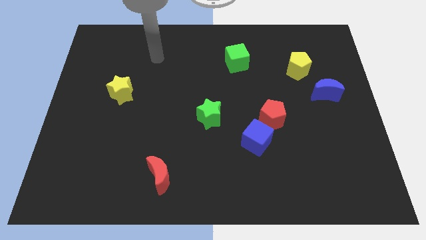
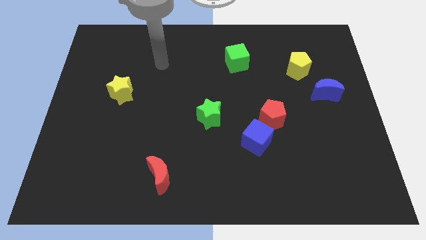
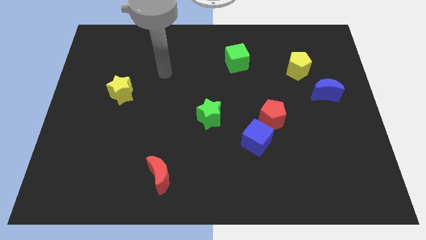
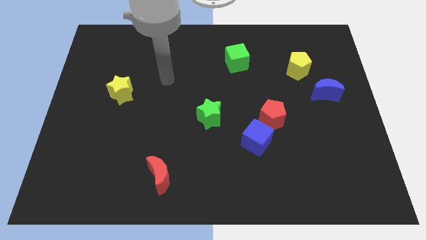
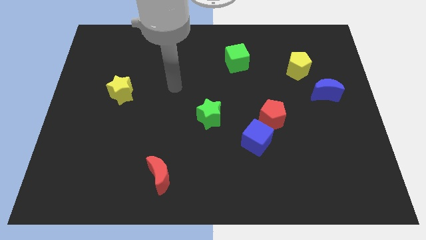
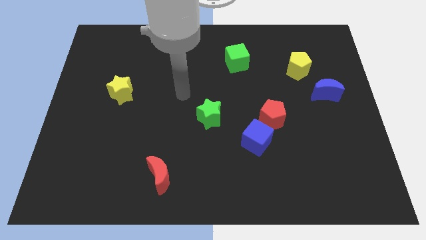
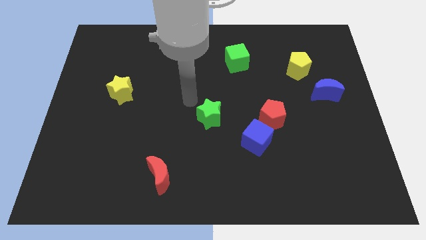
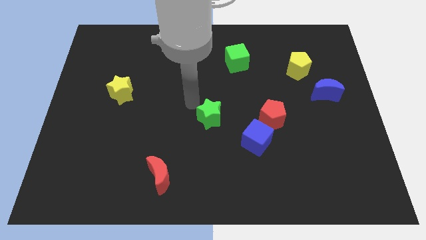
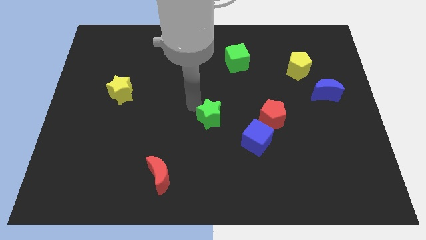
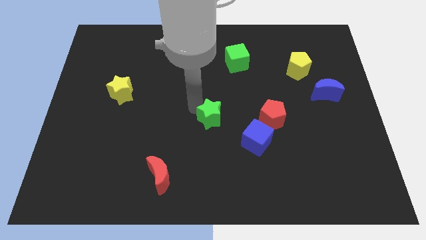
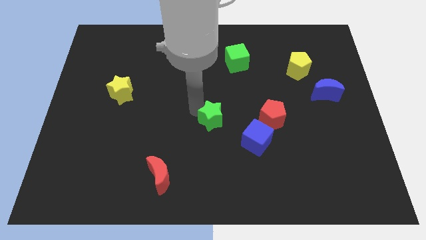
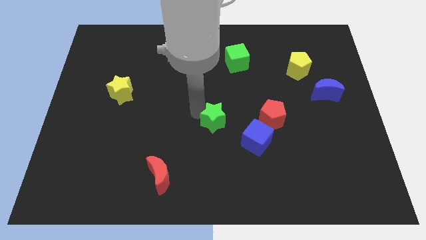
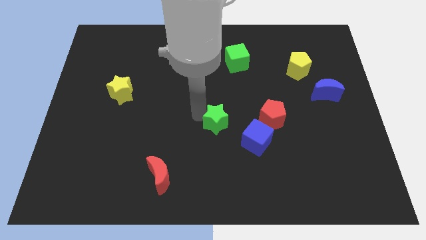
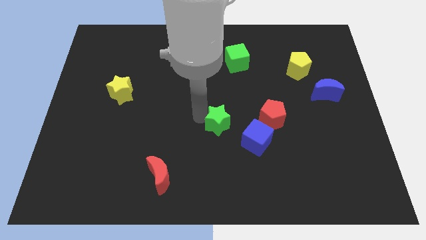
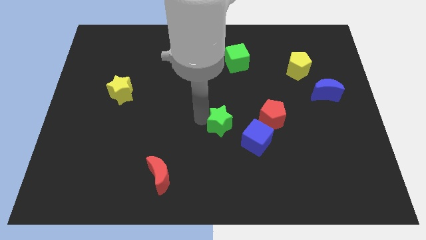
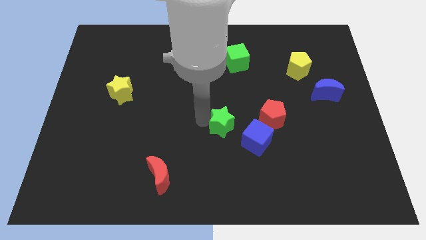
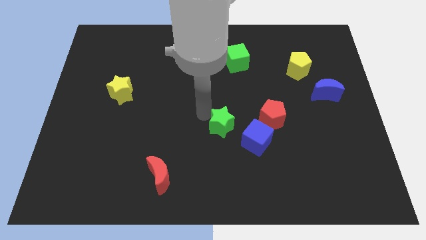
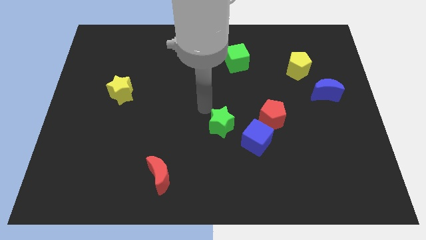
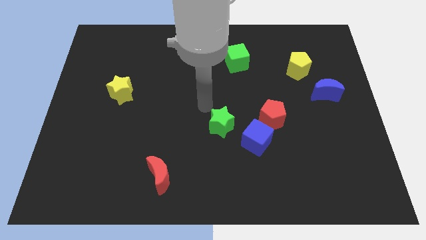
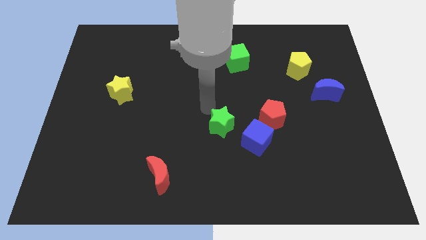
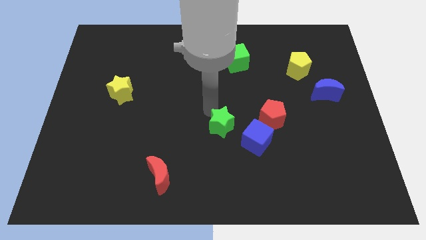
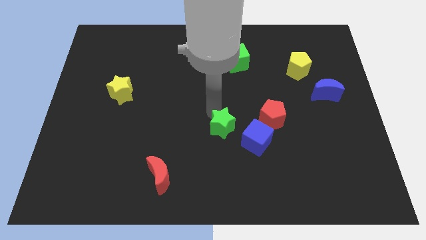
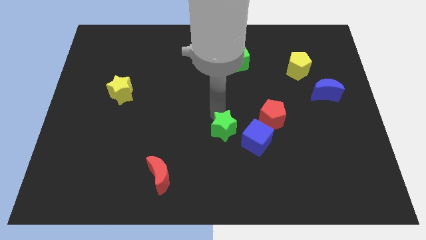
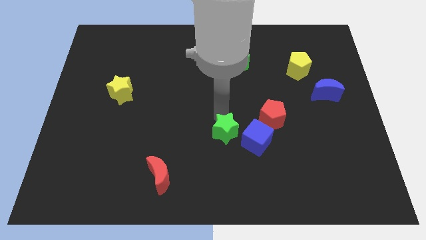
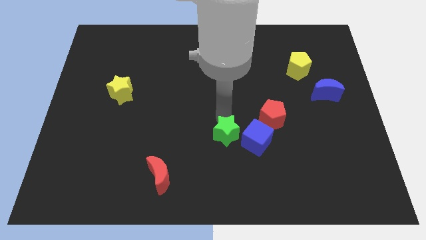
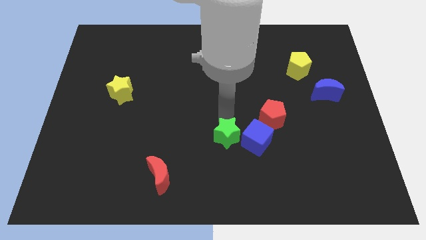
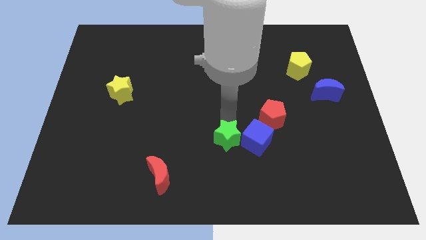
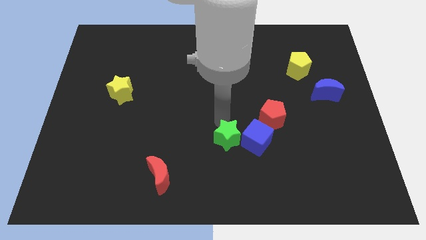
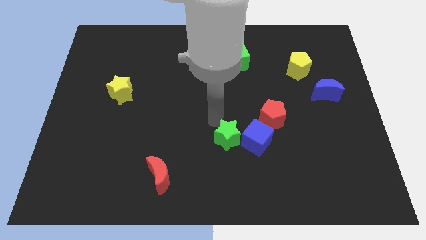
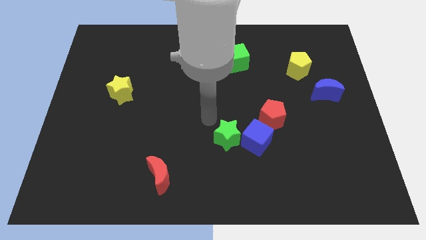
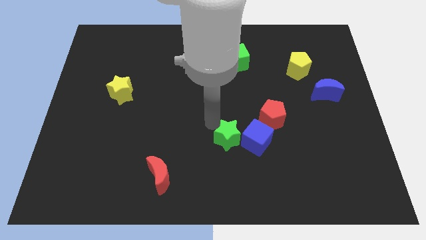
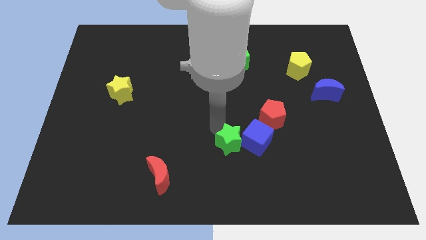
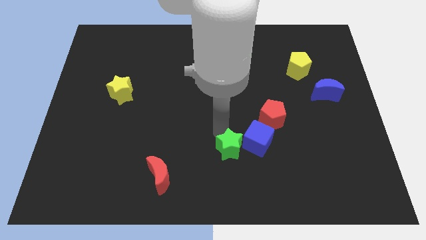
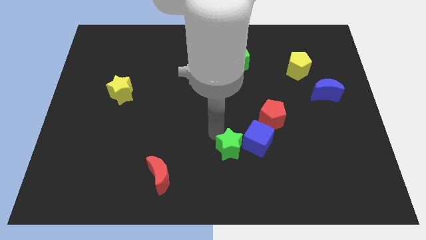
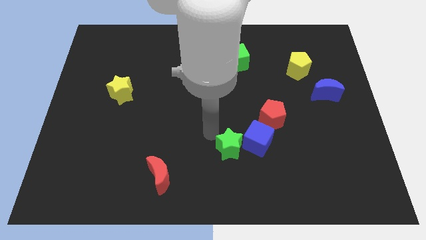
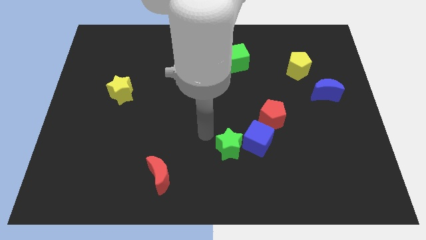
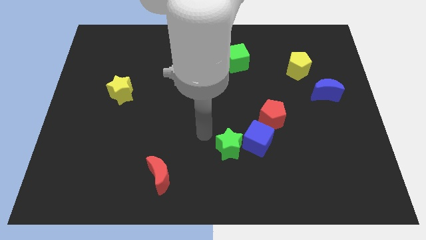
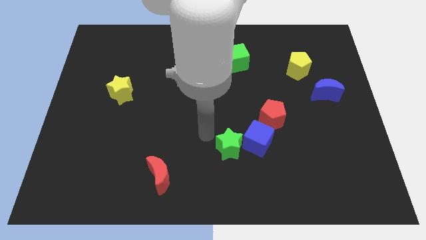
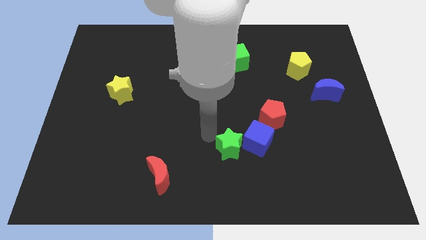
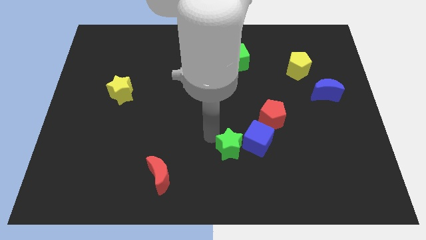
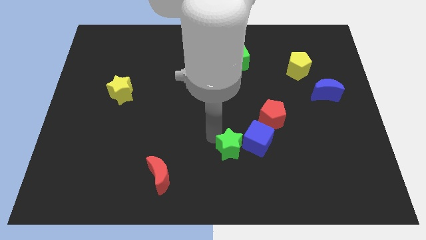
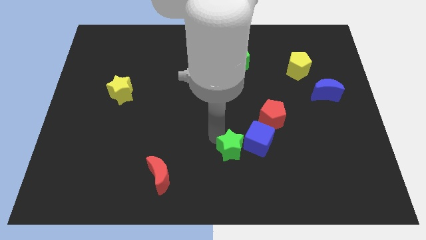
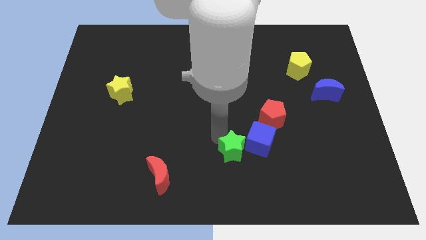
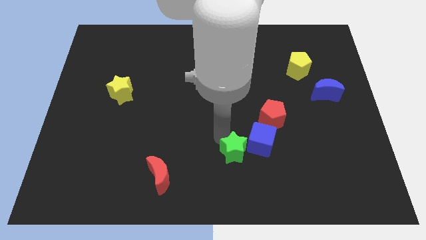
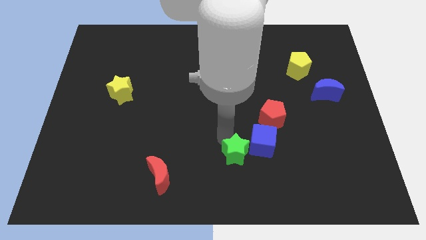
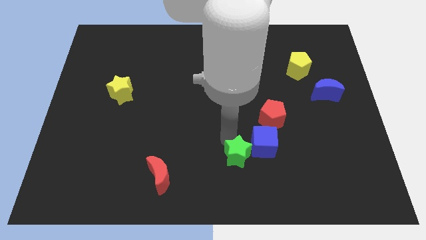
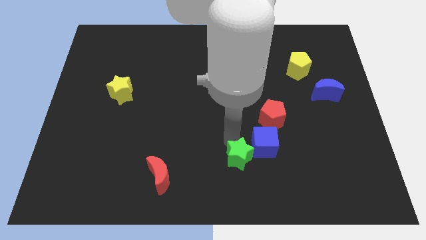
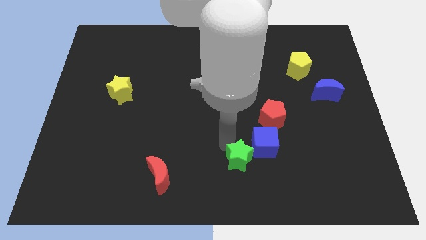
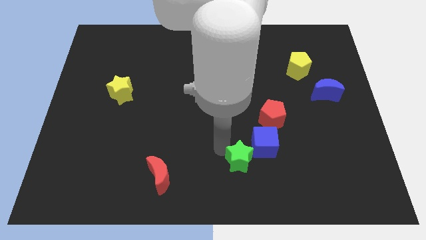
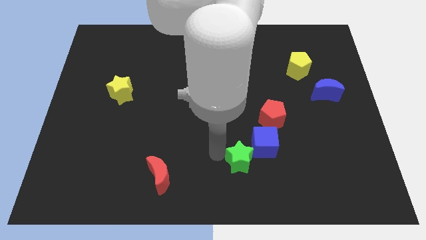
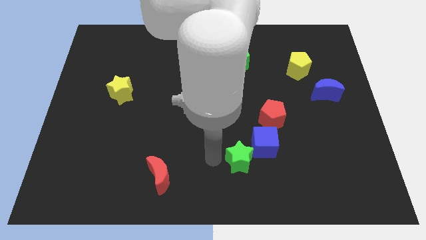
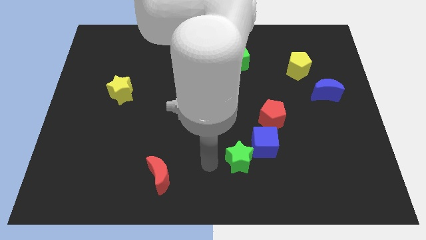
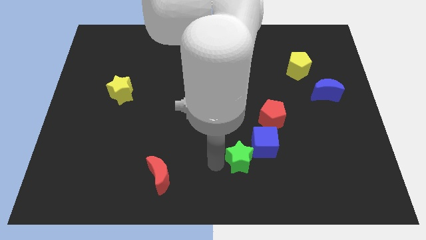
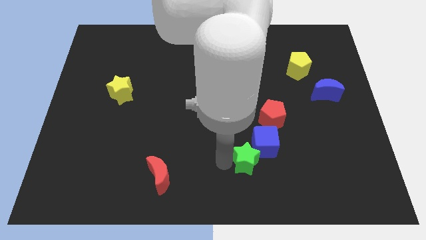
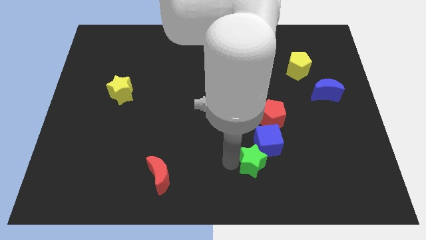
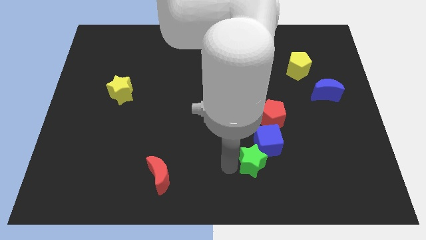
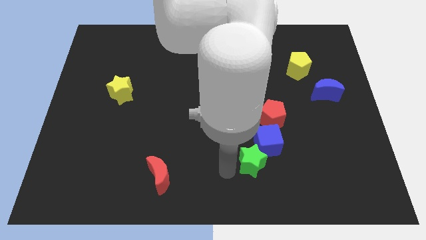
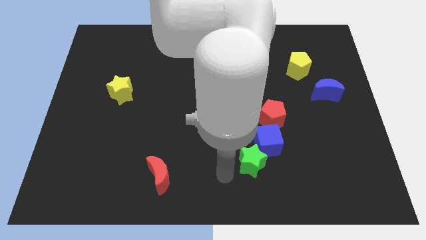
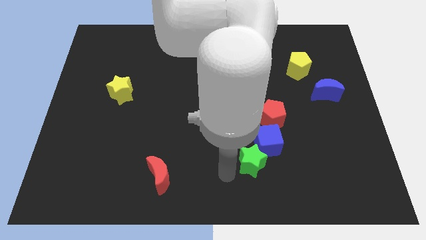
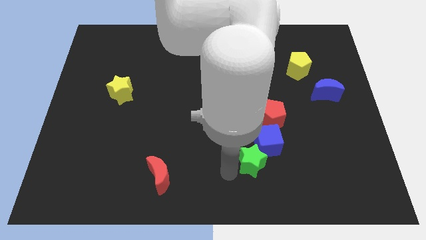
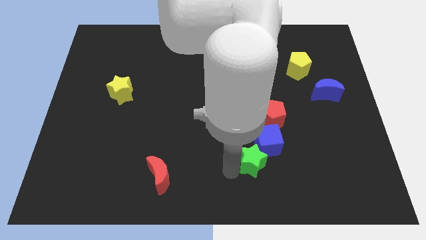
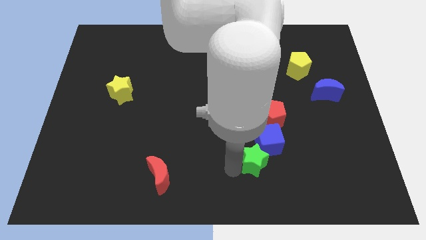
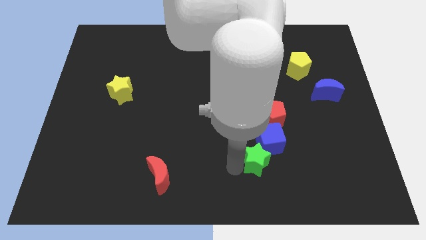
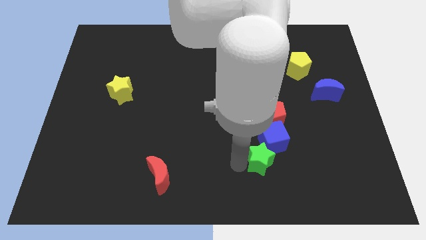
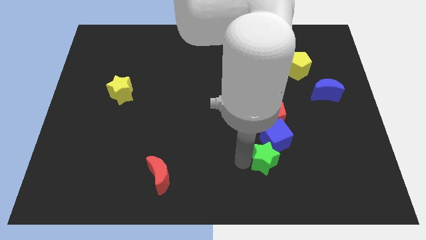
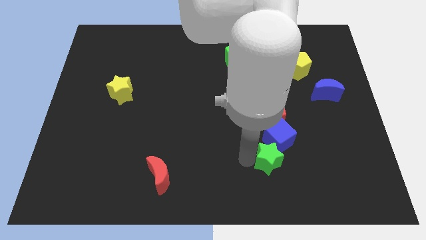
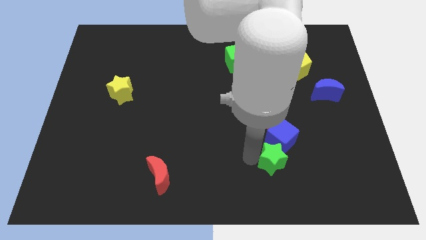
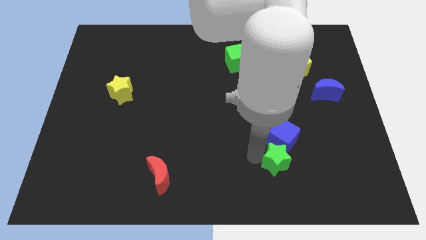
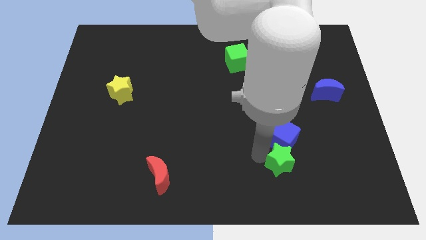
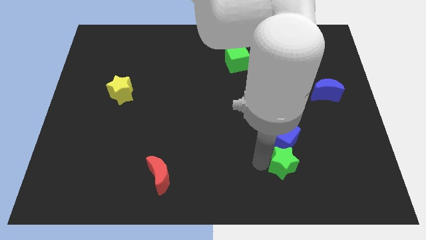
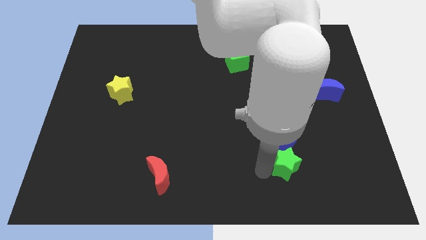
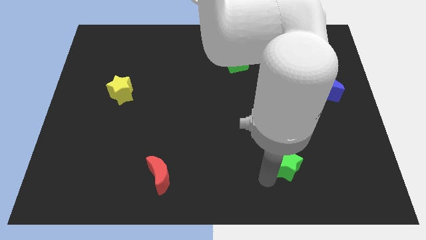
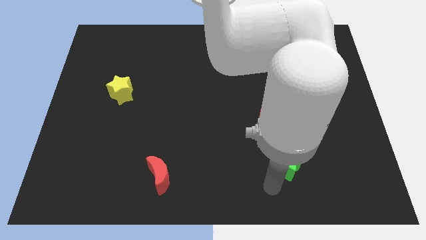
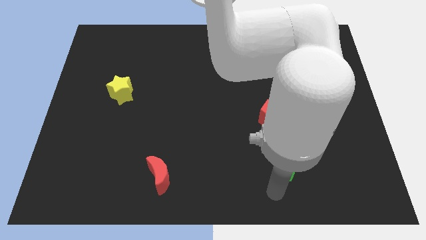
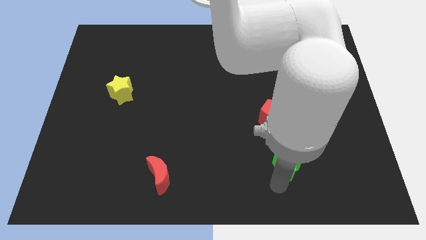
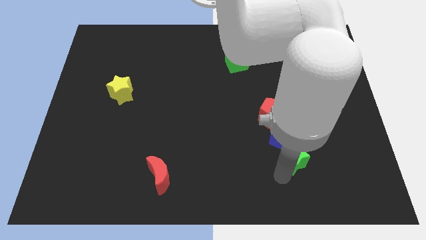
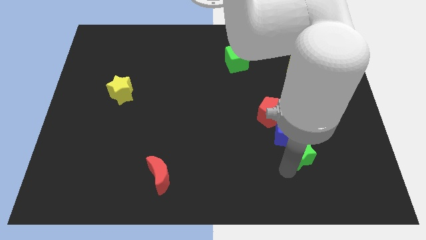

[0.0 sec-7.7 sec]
push the green star to the bottom right side of the red pentagon

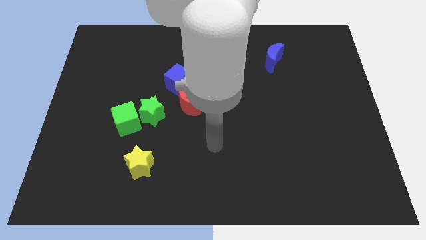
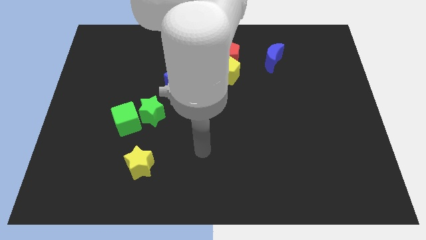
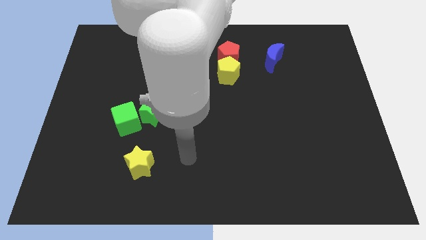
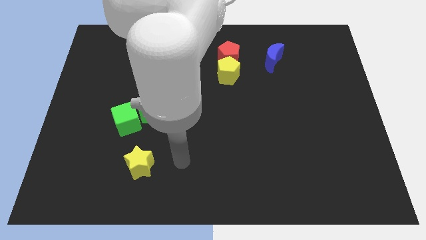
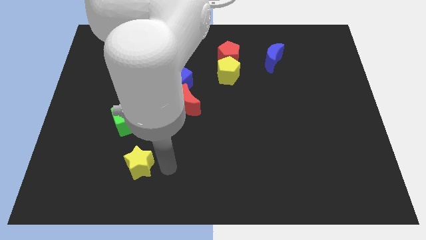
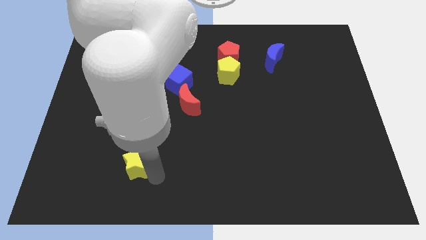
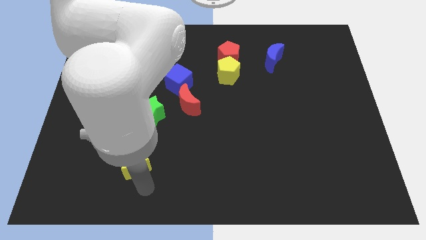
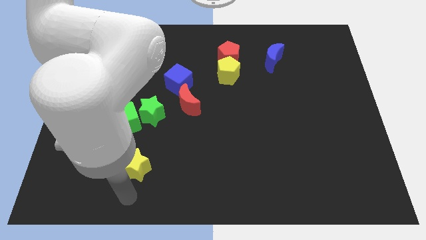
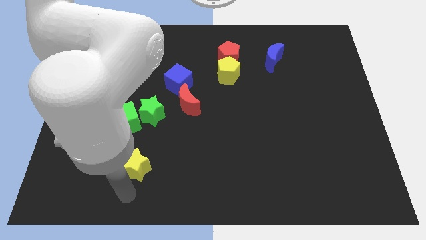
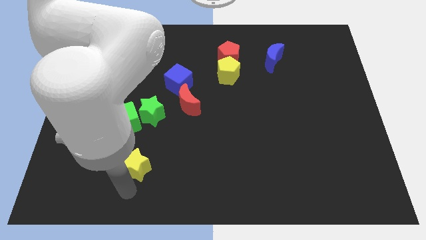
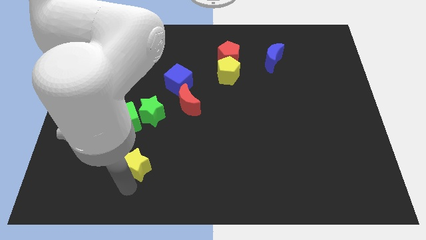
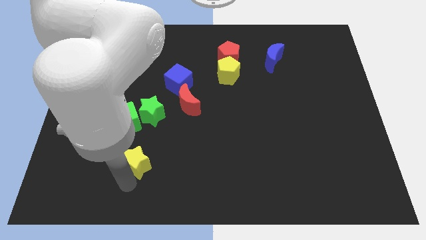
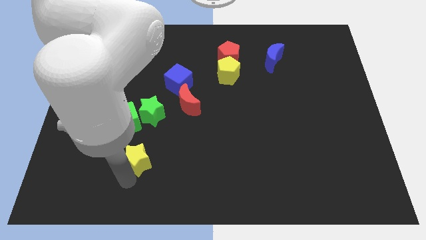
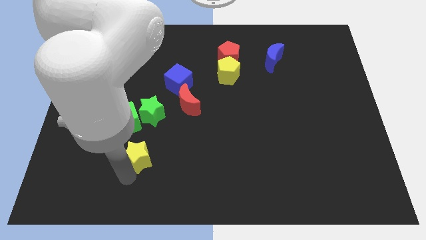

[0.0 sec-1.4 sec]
slide the yellow star diagonally down and to the right of the green cube
